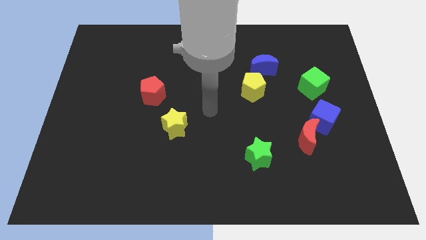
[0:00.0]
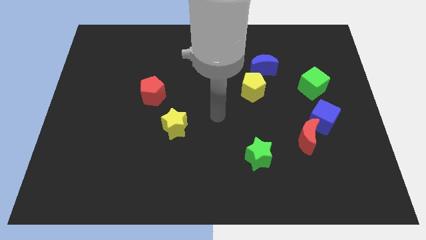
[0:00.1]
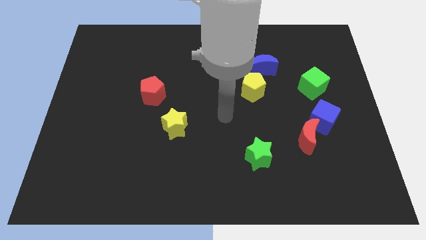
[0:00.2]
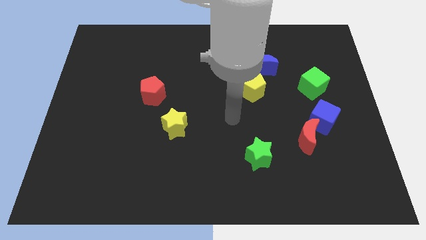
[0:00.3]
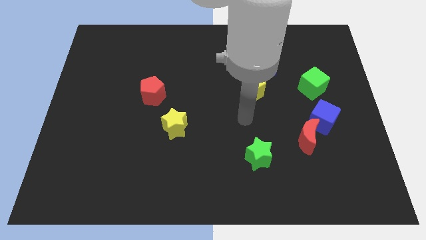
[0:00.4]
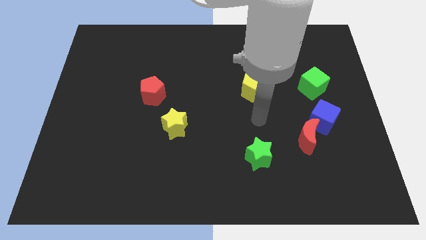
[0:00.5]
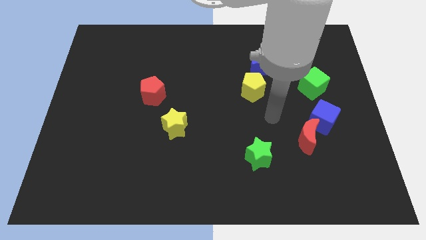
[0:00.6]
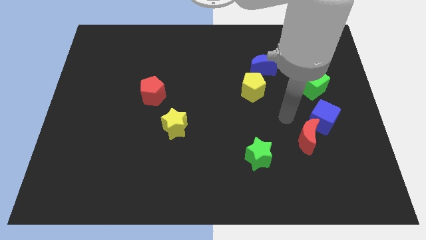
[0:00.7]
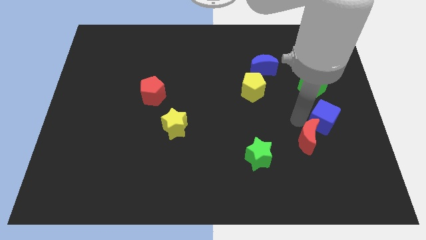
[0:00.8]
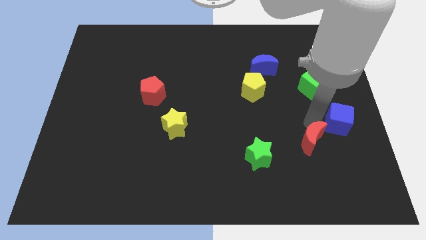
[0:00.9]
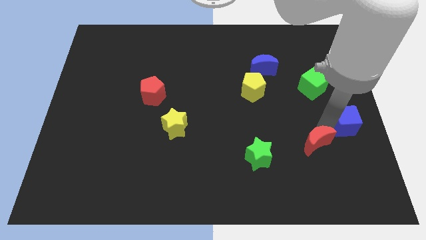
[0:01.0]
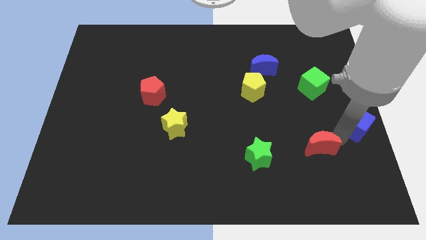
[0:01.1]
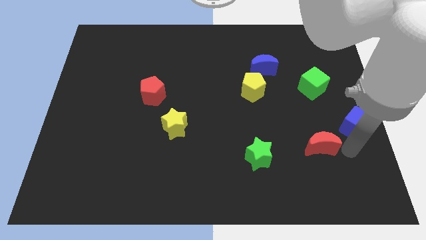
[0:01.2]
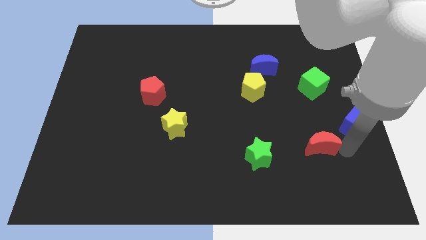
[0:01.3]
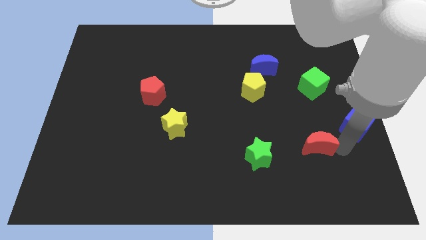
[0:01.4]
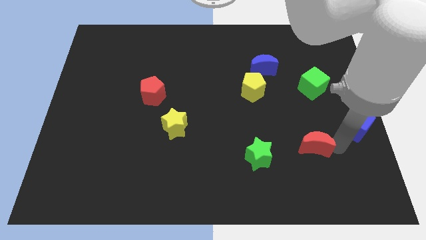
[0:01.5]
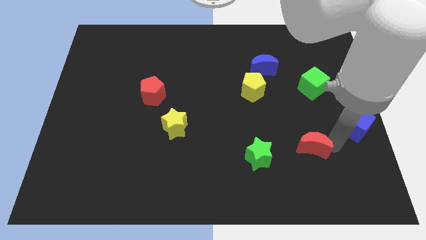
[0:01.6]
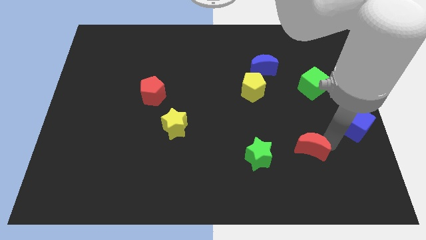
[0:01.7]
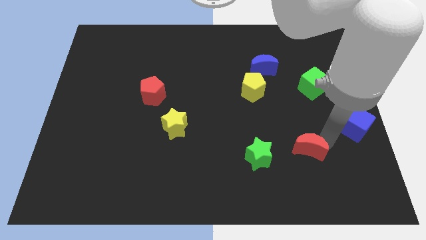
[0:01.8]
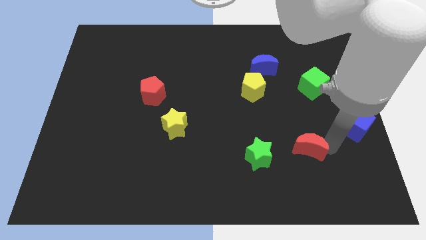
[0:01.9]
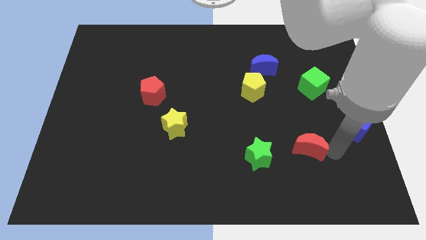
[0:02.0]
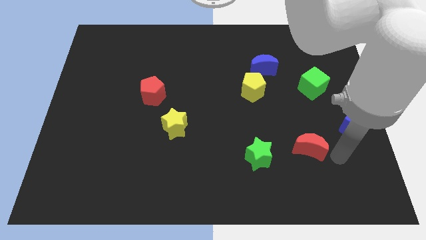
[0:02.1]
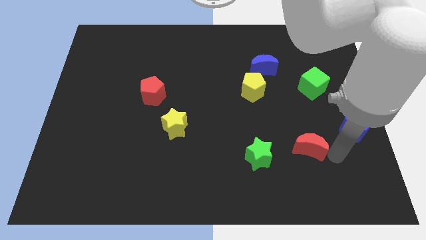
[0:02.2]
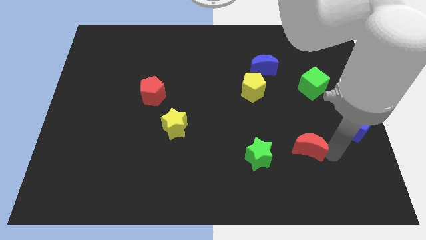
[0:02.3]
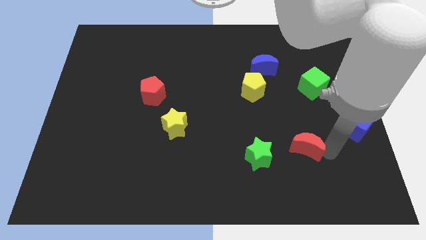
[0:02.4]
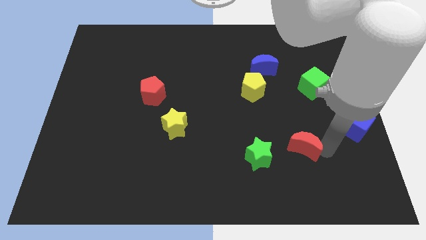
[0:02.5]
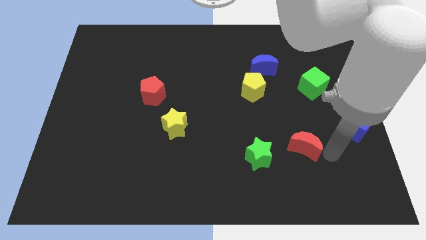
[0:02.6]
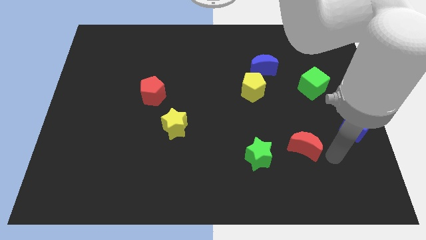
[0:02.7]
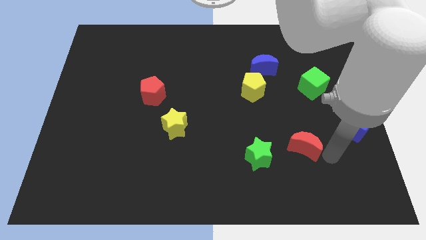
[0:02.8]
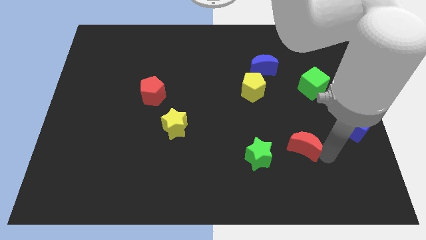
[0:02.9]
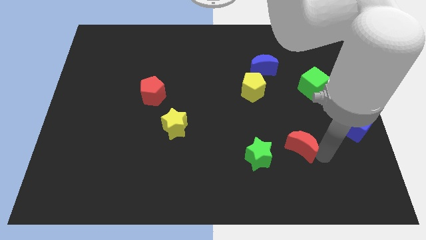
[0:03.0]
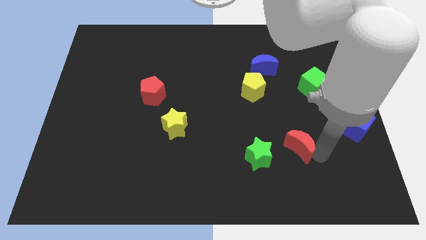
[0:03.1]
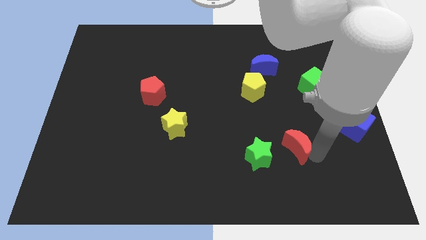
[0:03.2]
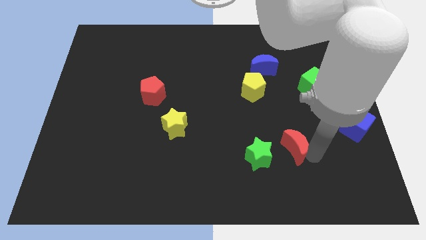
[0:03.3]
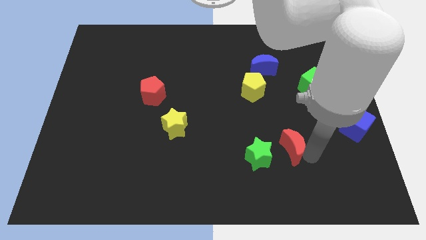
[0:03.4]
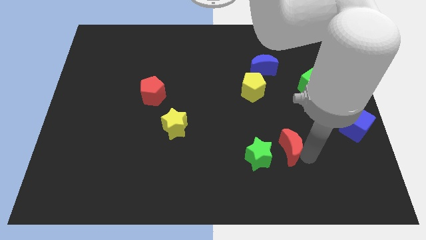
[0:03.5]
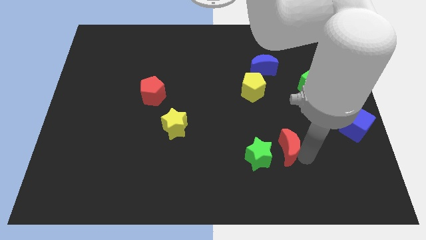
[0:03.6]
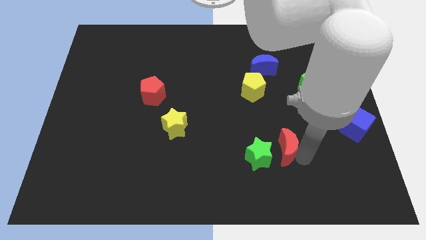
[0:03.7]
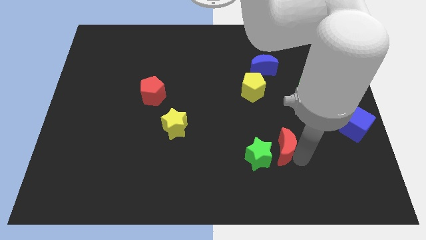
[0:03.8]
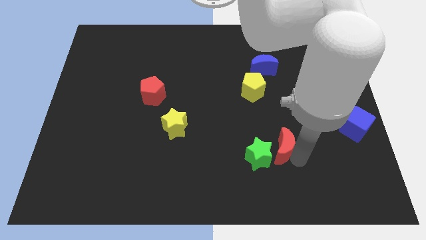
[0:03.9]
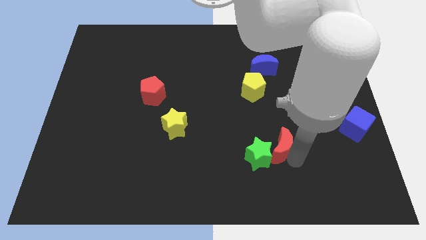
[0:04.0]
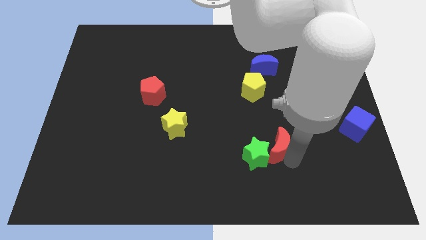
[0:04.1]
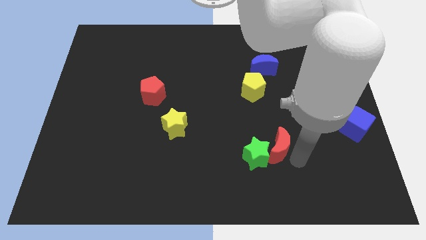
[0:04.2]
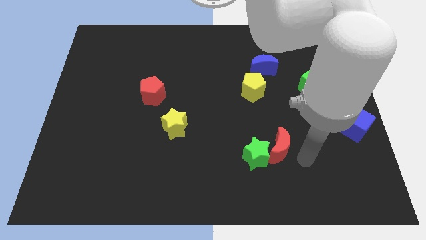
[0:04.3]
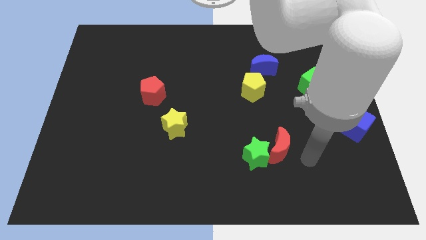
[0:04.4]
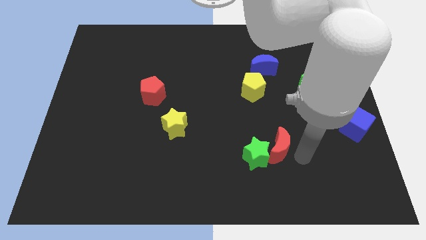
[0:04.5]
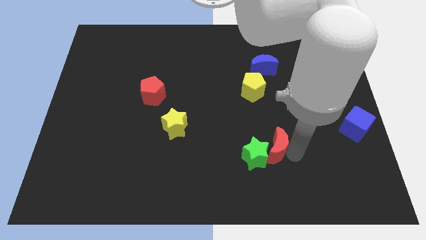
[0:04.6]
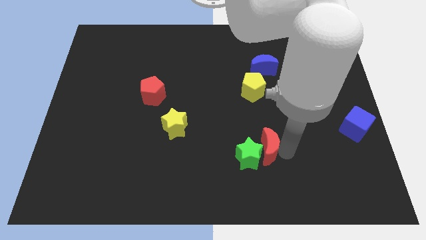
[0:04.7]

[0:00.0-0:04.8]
slightly move the red moon to the left

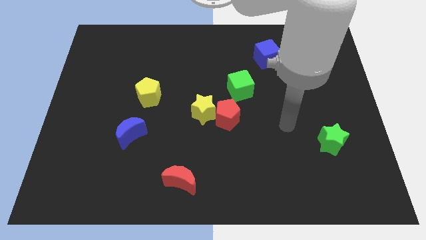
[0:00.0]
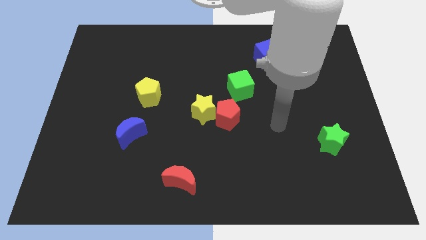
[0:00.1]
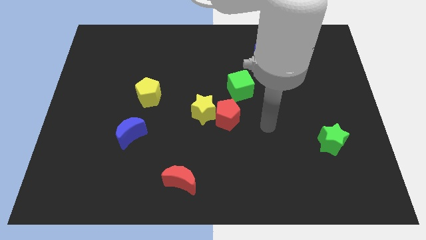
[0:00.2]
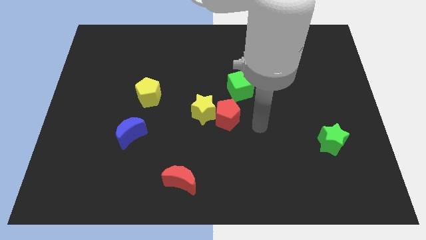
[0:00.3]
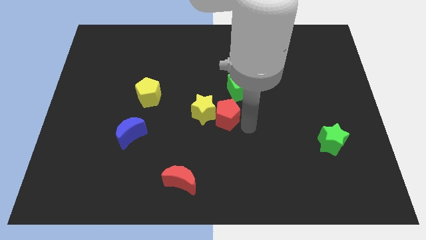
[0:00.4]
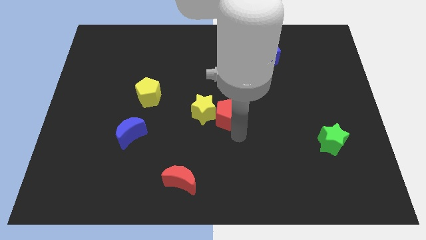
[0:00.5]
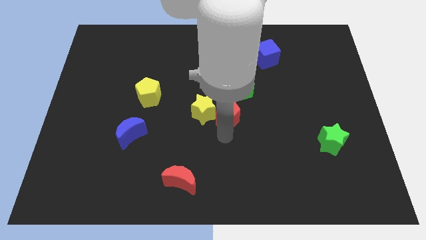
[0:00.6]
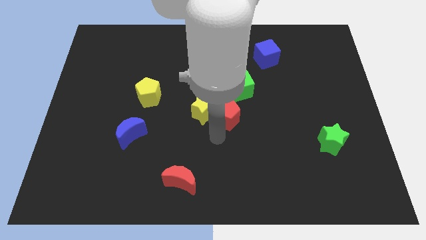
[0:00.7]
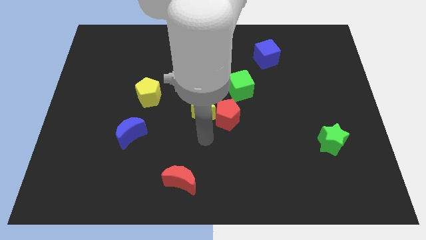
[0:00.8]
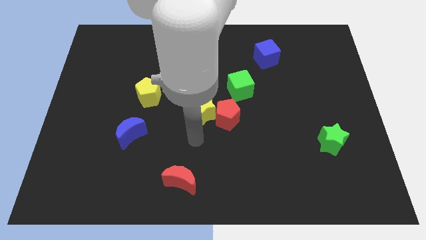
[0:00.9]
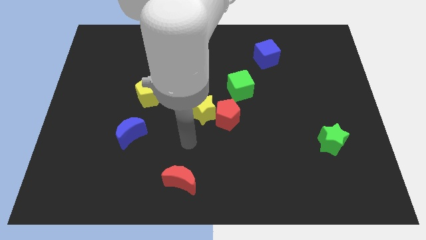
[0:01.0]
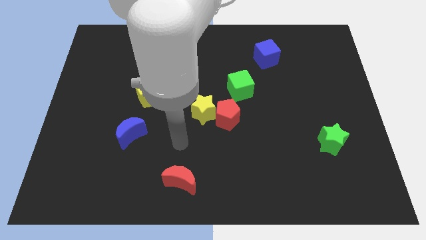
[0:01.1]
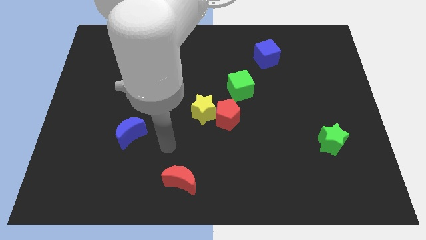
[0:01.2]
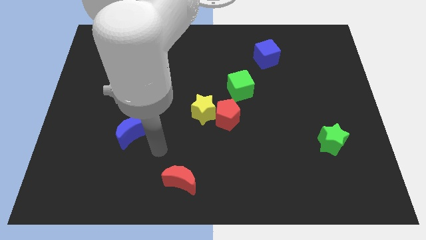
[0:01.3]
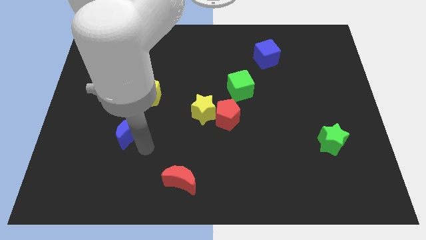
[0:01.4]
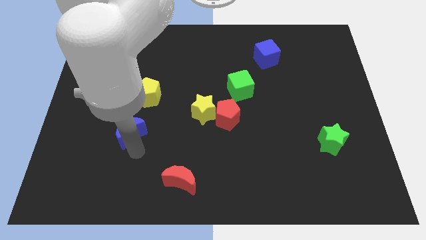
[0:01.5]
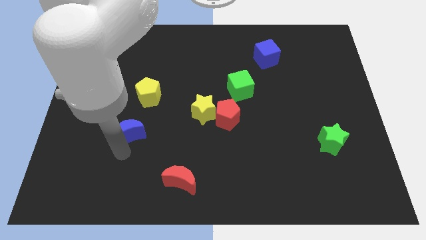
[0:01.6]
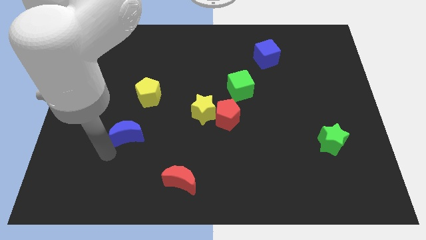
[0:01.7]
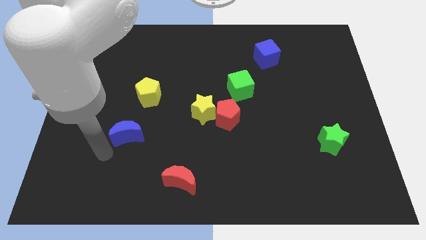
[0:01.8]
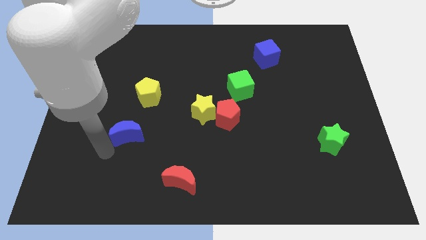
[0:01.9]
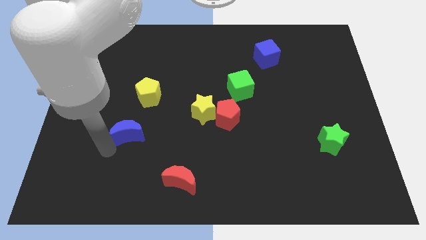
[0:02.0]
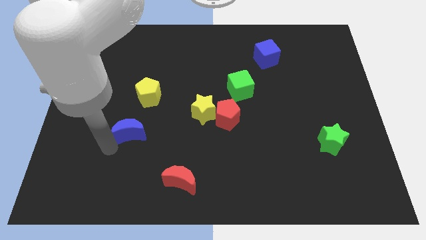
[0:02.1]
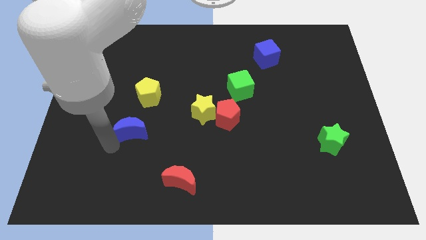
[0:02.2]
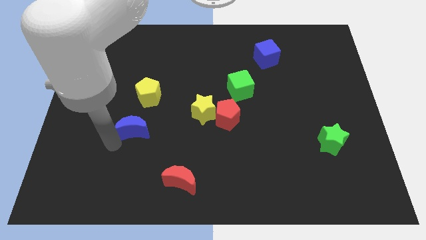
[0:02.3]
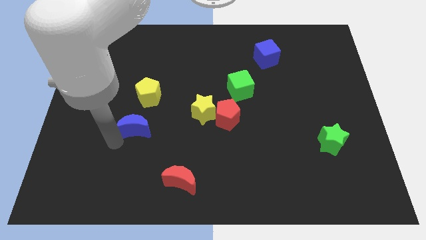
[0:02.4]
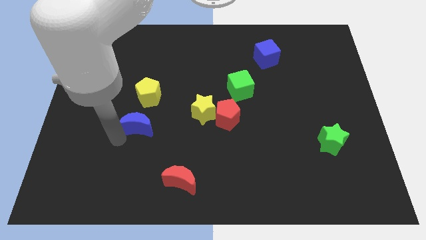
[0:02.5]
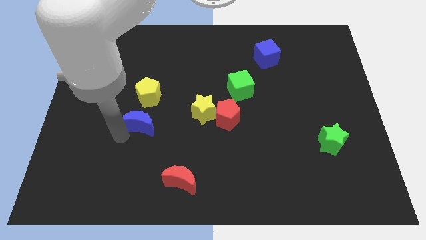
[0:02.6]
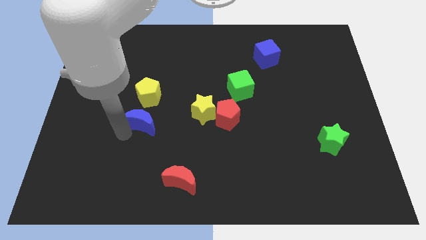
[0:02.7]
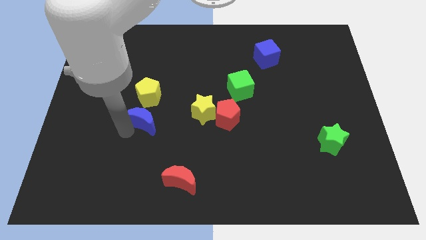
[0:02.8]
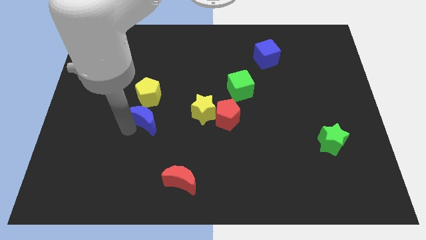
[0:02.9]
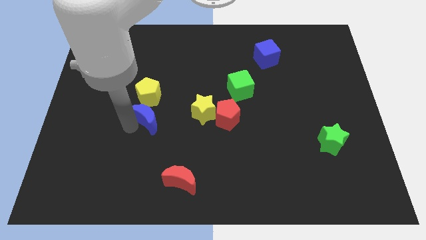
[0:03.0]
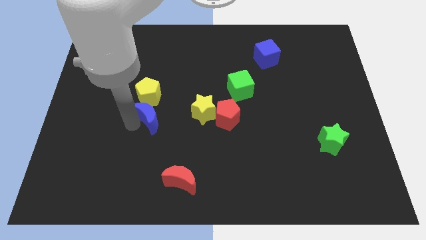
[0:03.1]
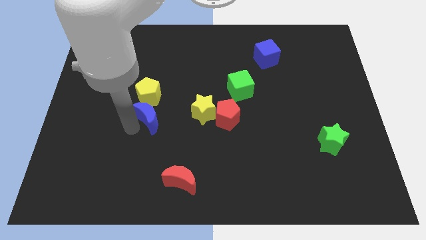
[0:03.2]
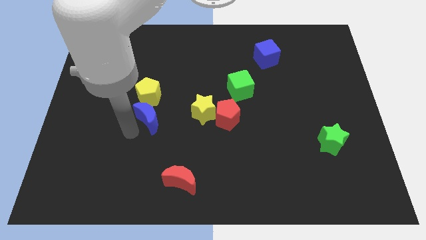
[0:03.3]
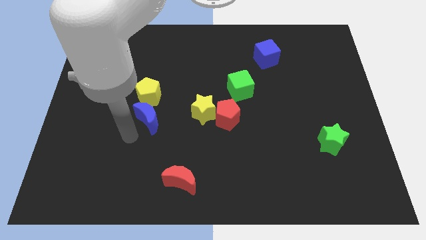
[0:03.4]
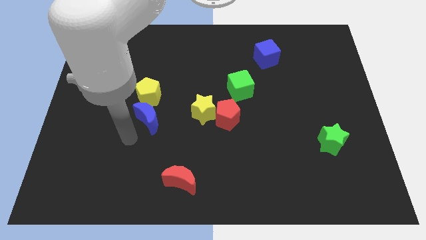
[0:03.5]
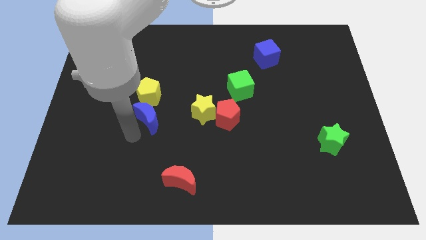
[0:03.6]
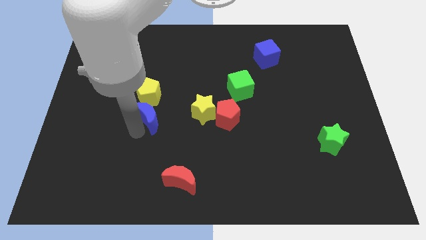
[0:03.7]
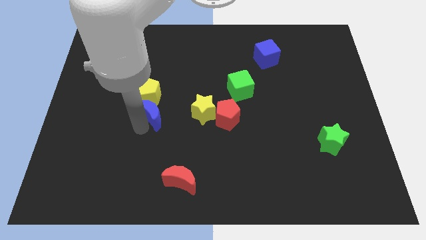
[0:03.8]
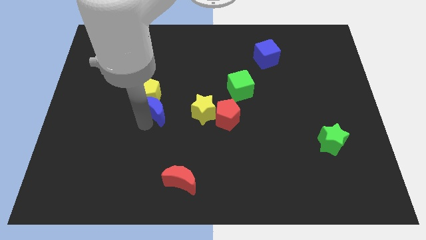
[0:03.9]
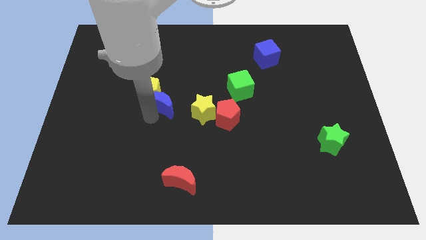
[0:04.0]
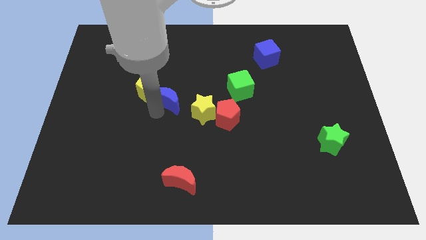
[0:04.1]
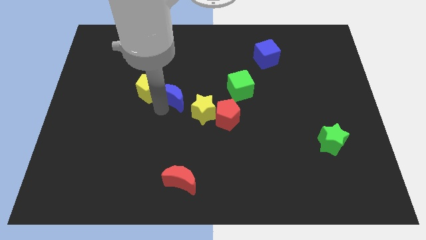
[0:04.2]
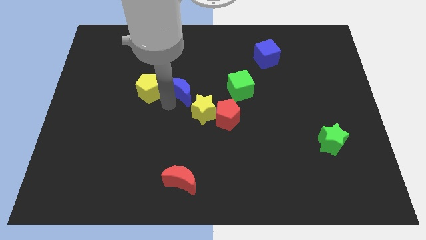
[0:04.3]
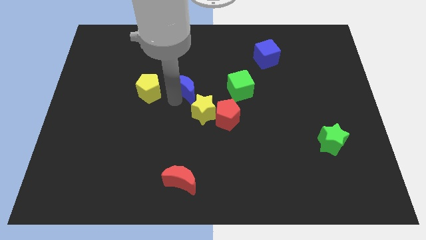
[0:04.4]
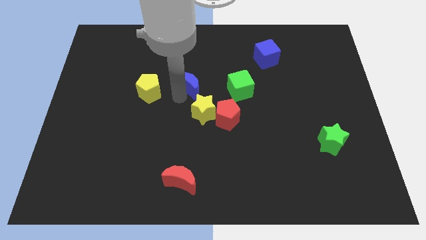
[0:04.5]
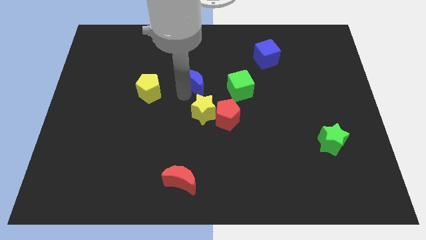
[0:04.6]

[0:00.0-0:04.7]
push the blue moon up and then to the right
